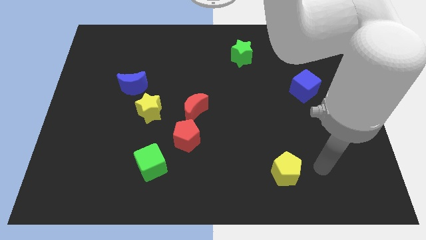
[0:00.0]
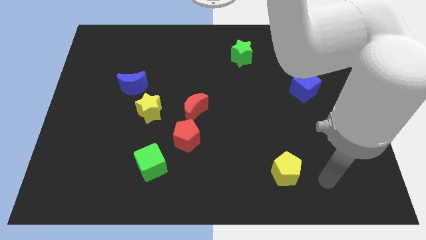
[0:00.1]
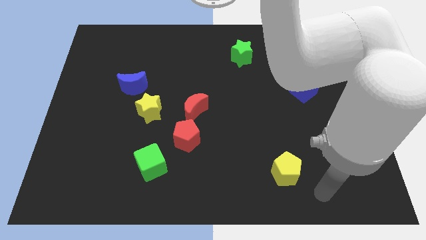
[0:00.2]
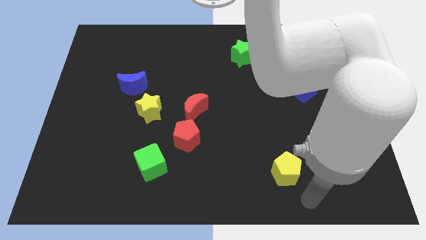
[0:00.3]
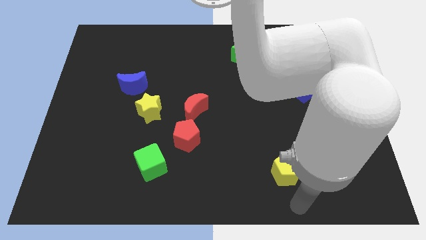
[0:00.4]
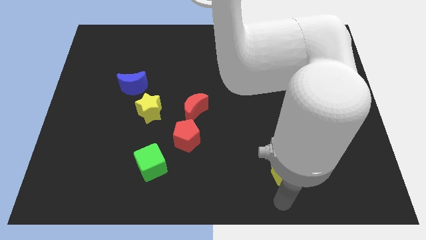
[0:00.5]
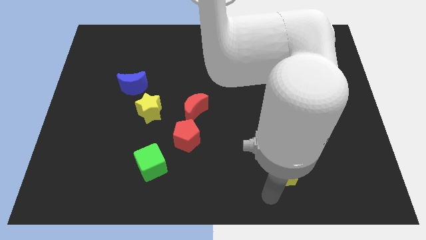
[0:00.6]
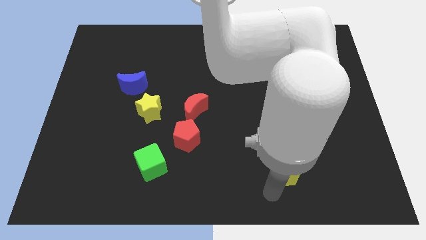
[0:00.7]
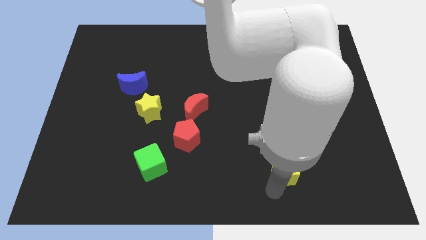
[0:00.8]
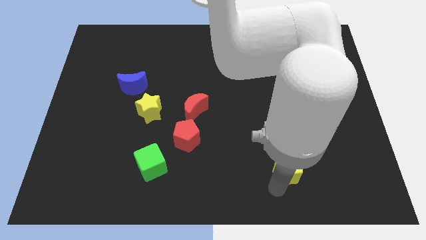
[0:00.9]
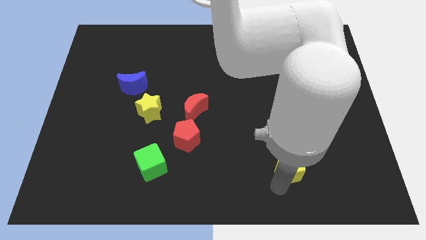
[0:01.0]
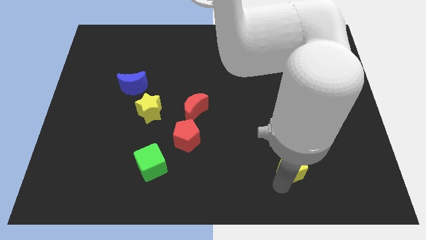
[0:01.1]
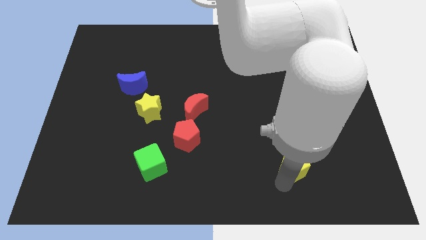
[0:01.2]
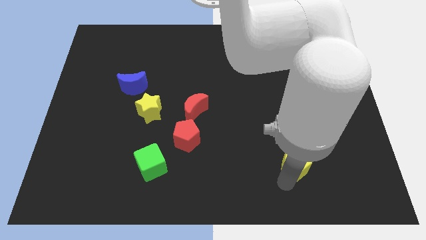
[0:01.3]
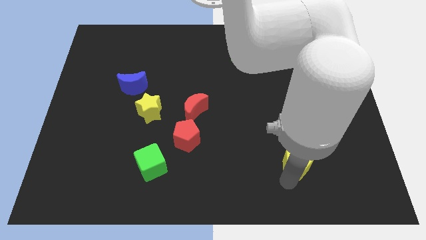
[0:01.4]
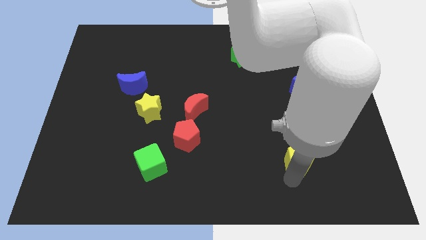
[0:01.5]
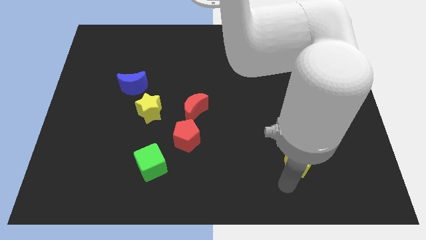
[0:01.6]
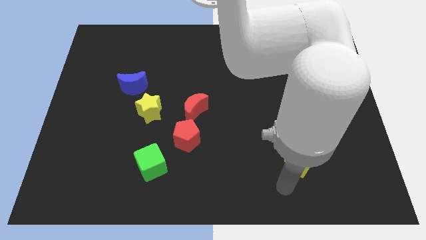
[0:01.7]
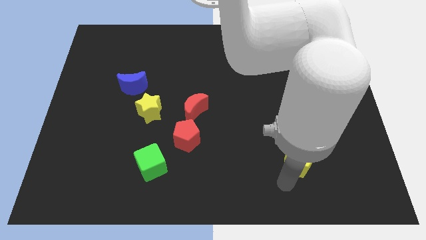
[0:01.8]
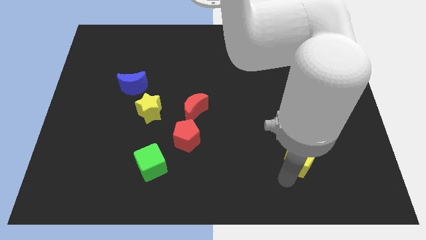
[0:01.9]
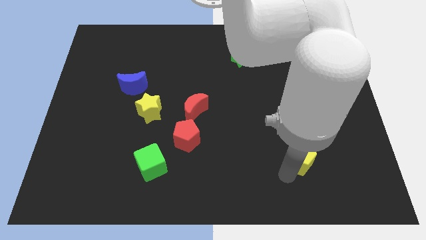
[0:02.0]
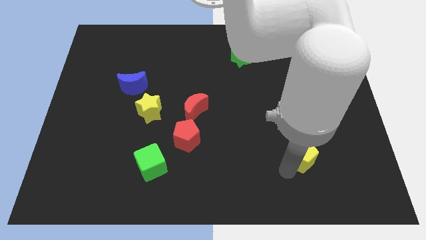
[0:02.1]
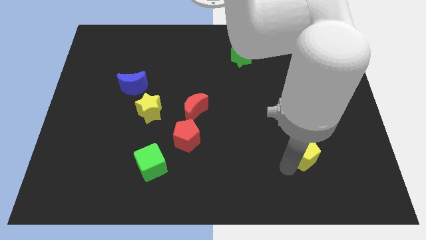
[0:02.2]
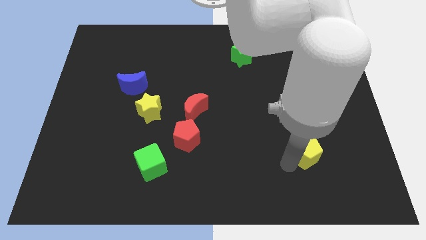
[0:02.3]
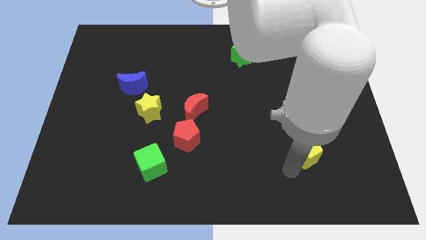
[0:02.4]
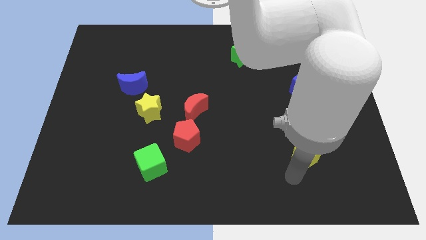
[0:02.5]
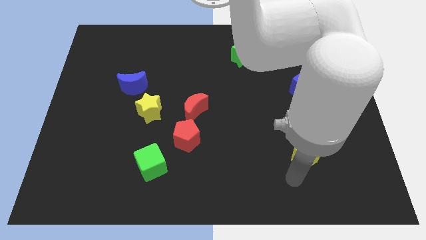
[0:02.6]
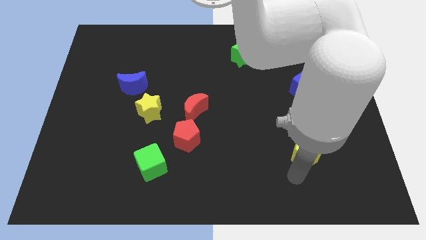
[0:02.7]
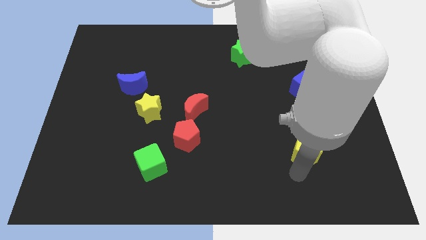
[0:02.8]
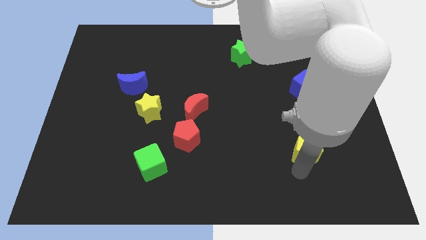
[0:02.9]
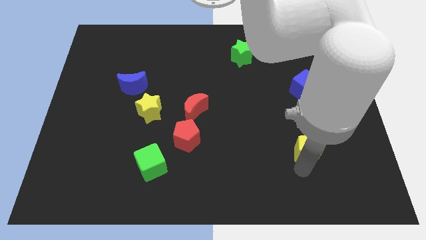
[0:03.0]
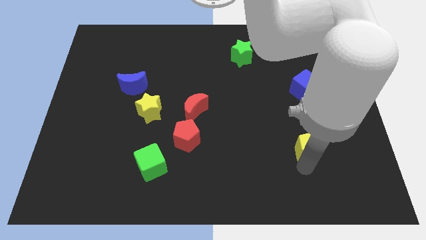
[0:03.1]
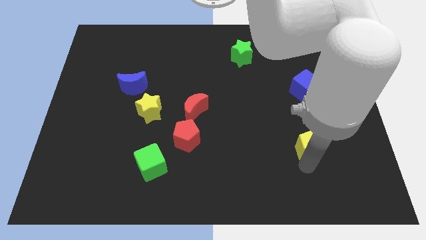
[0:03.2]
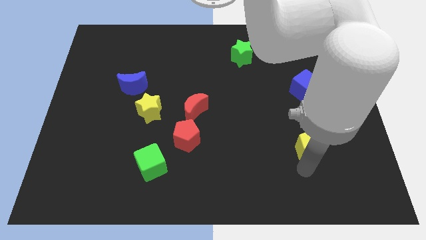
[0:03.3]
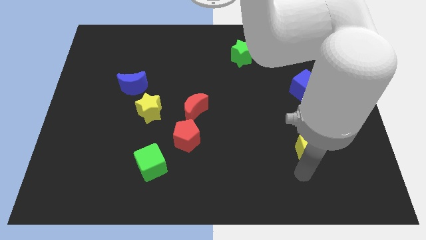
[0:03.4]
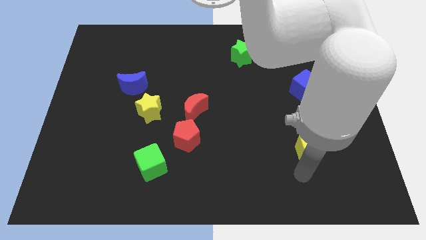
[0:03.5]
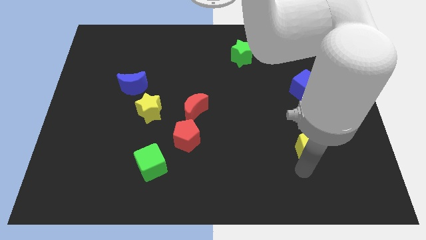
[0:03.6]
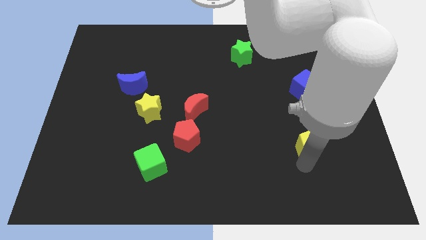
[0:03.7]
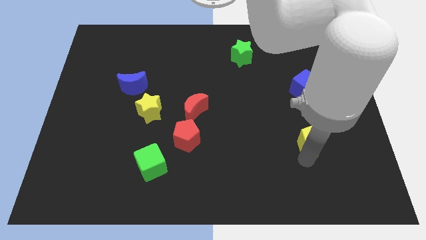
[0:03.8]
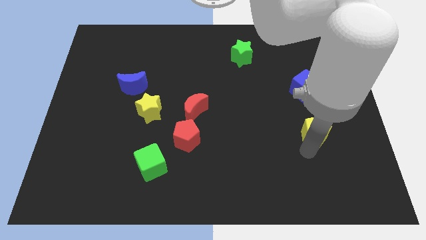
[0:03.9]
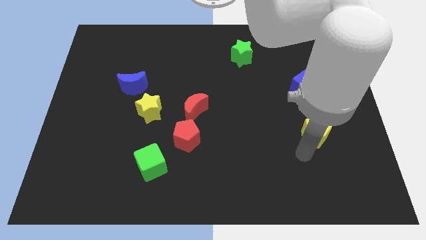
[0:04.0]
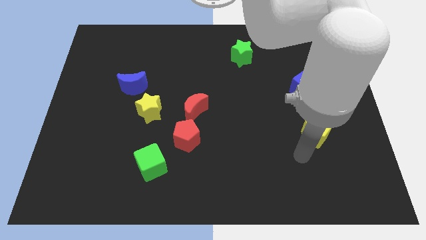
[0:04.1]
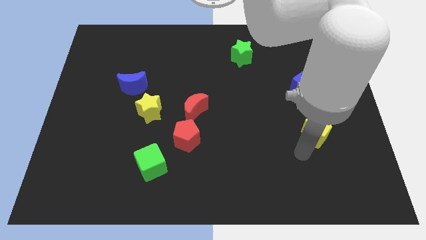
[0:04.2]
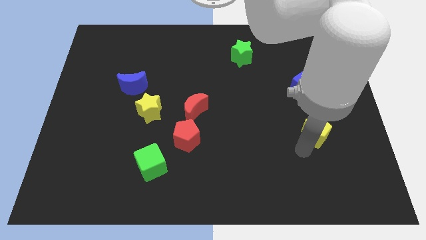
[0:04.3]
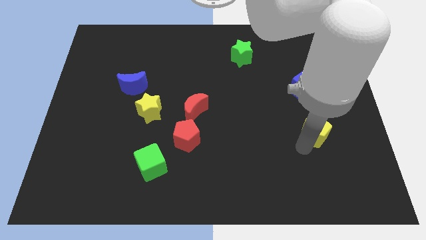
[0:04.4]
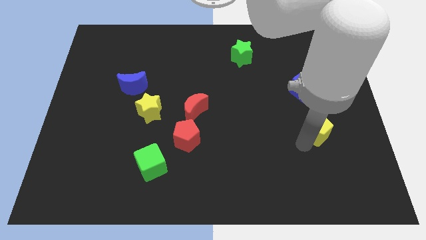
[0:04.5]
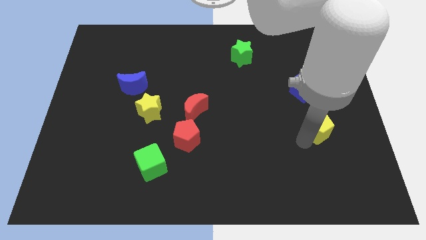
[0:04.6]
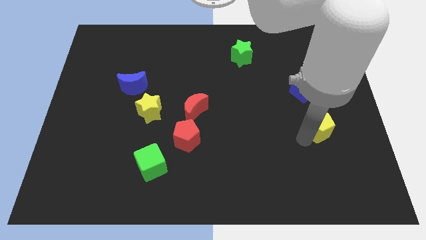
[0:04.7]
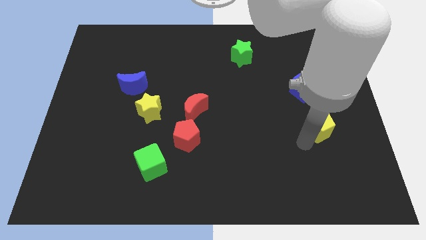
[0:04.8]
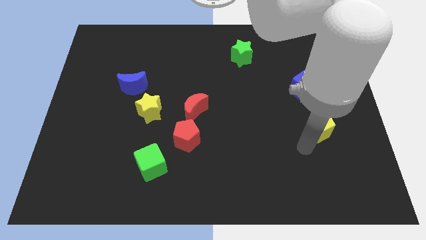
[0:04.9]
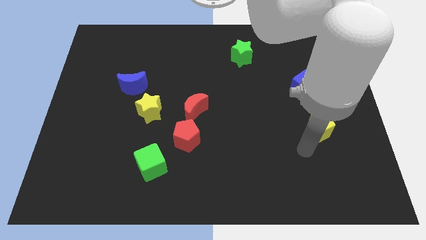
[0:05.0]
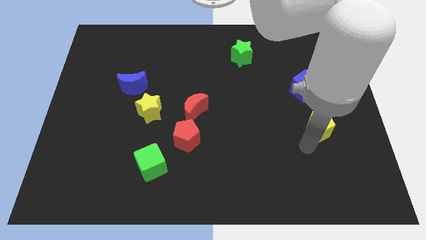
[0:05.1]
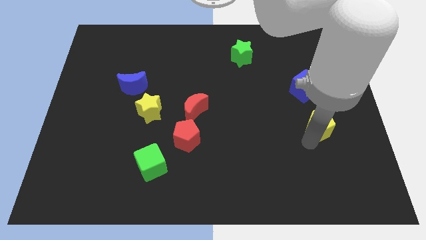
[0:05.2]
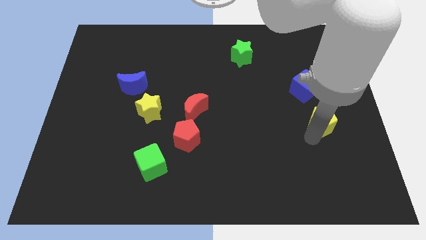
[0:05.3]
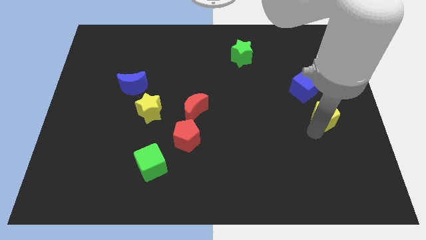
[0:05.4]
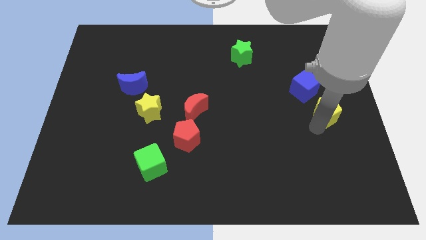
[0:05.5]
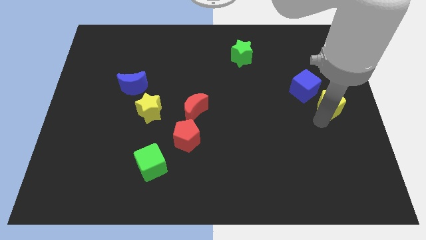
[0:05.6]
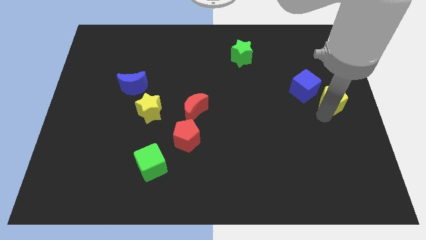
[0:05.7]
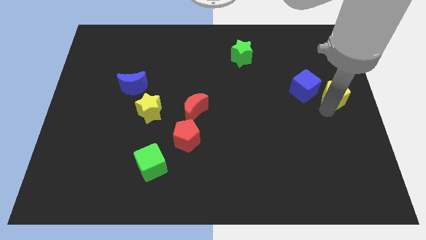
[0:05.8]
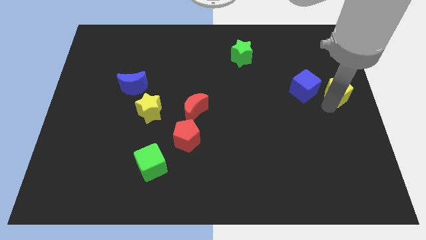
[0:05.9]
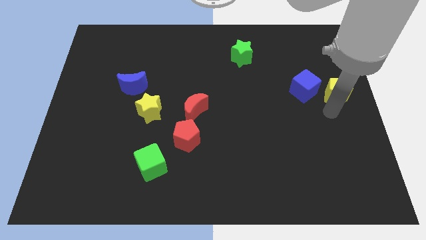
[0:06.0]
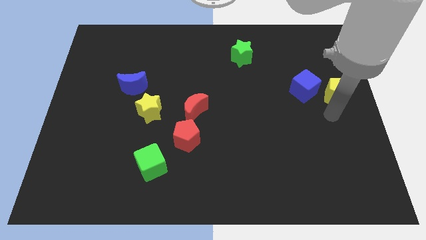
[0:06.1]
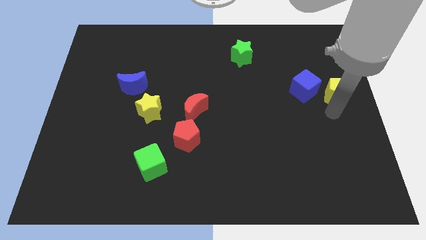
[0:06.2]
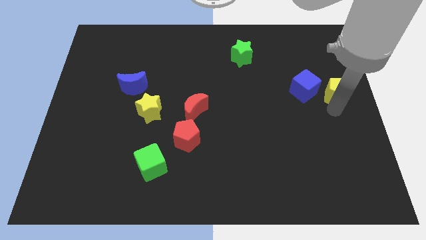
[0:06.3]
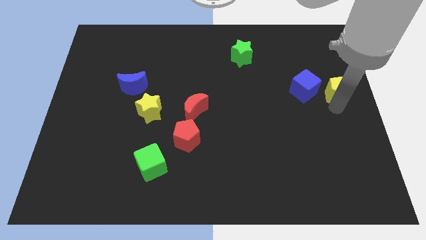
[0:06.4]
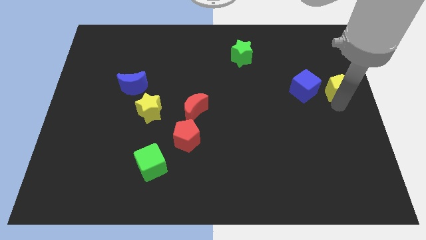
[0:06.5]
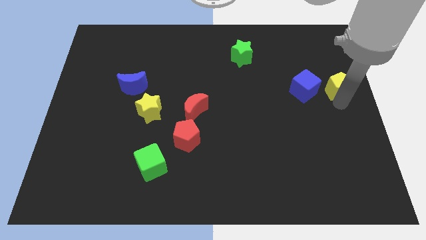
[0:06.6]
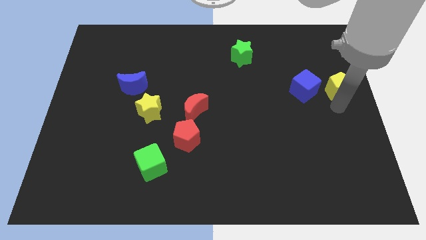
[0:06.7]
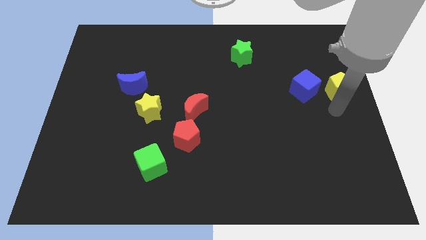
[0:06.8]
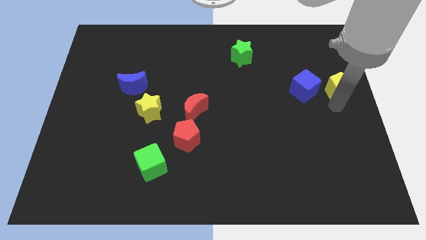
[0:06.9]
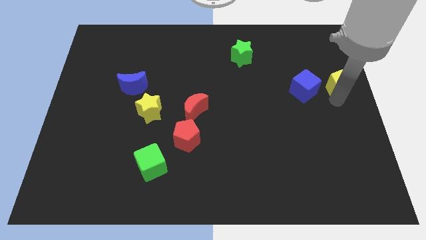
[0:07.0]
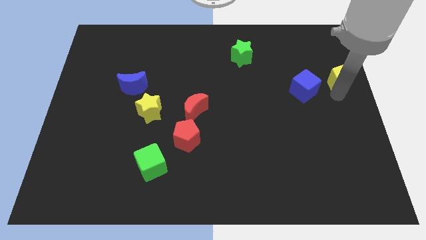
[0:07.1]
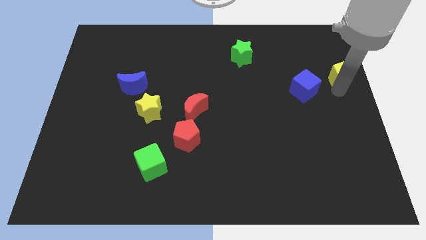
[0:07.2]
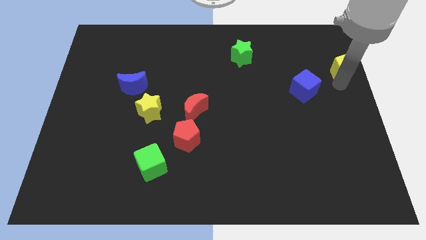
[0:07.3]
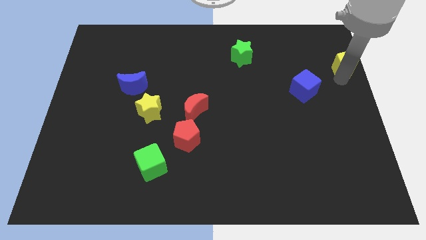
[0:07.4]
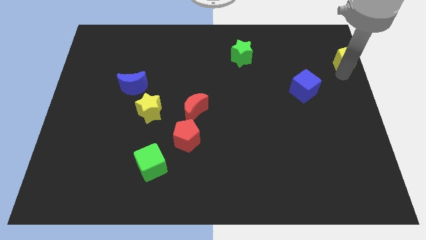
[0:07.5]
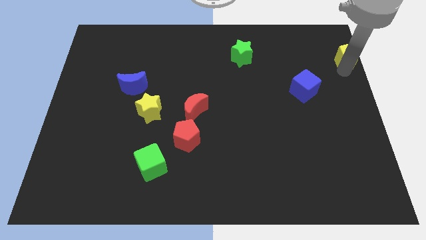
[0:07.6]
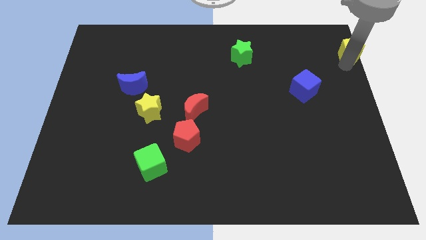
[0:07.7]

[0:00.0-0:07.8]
put the yellow pentagon to the top right of the board
